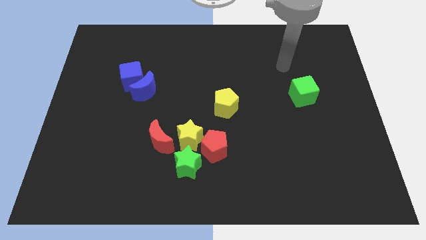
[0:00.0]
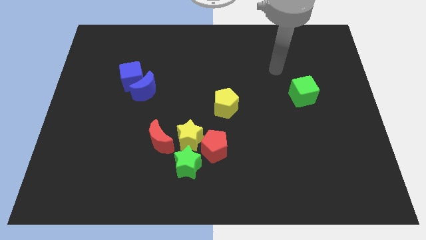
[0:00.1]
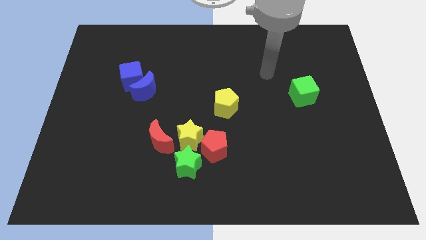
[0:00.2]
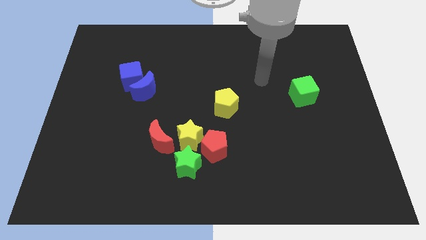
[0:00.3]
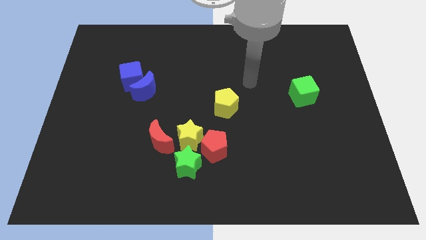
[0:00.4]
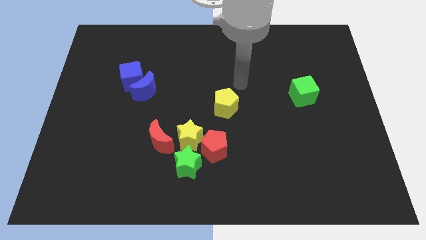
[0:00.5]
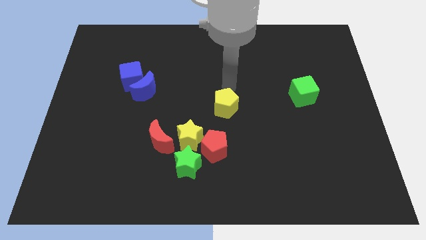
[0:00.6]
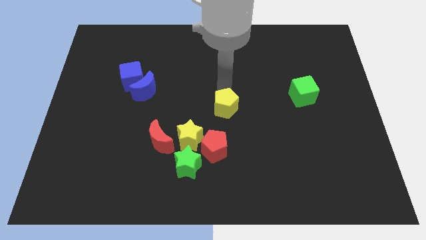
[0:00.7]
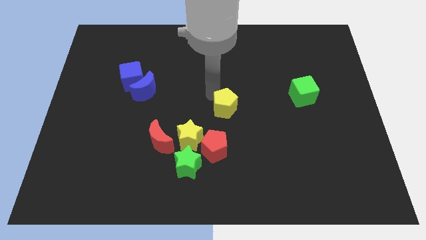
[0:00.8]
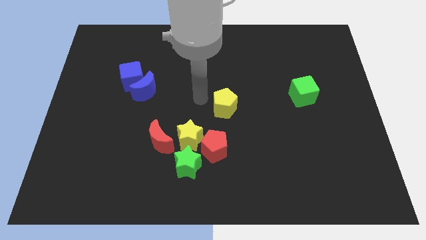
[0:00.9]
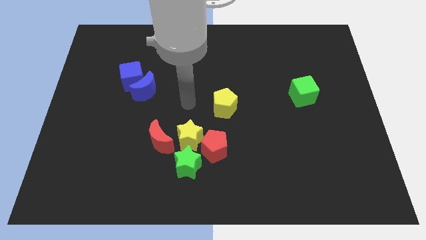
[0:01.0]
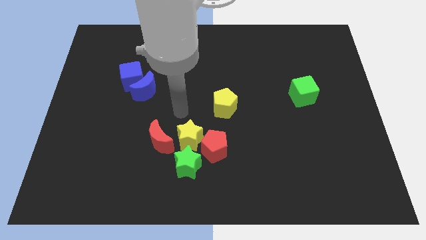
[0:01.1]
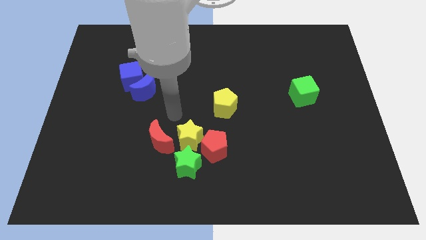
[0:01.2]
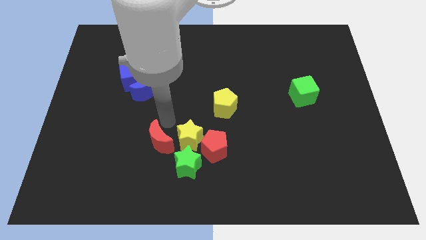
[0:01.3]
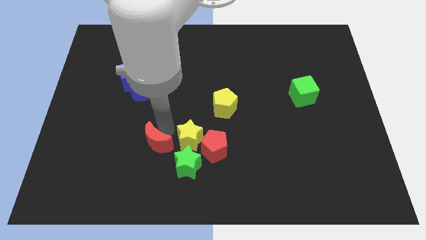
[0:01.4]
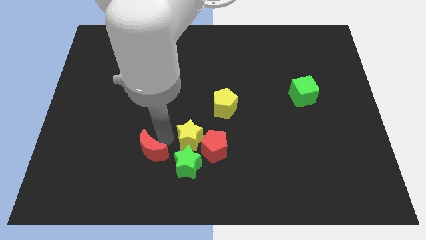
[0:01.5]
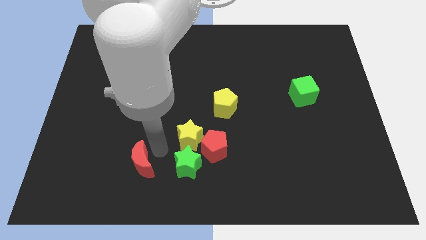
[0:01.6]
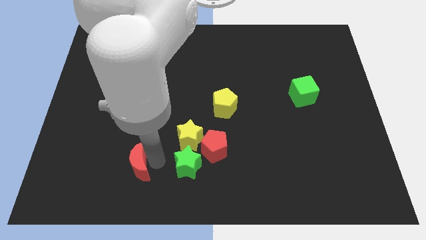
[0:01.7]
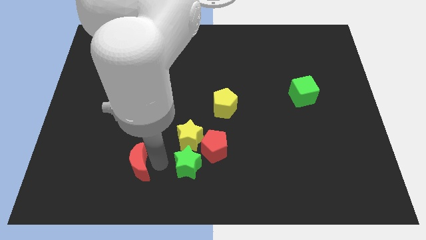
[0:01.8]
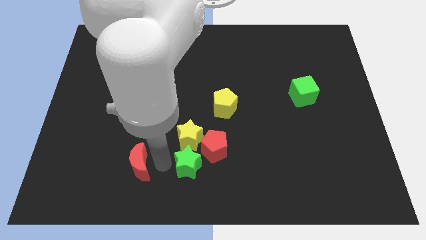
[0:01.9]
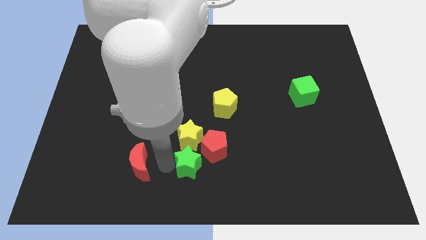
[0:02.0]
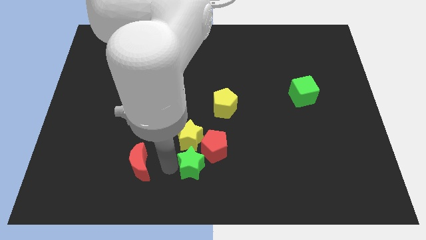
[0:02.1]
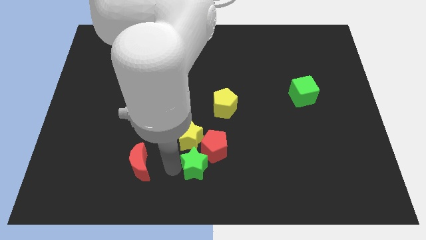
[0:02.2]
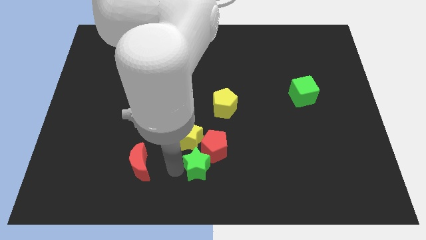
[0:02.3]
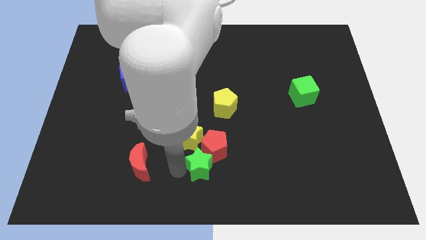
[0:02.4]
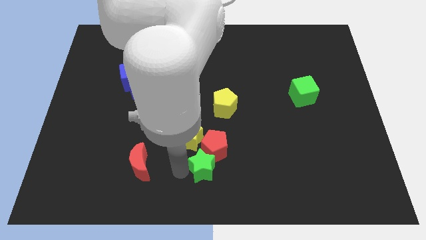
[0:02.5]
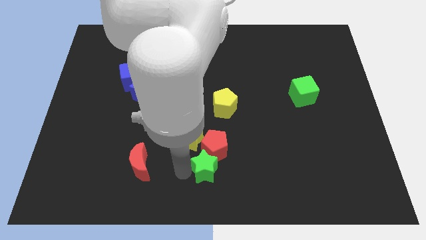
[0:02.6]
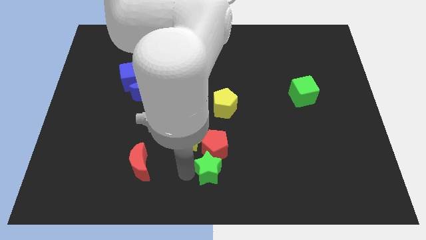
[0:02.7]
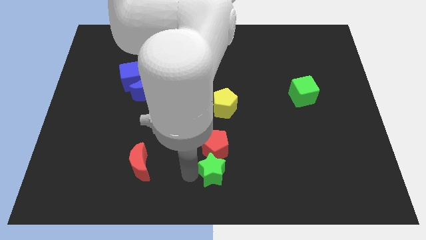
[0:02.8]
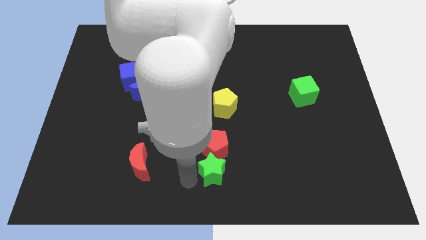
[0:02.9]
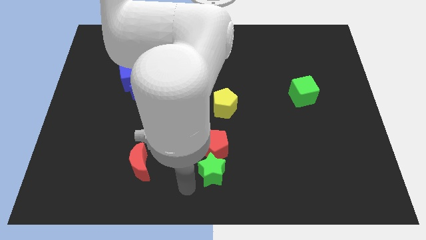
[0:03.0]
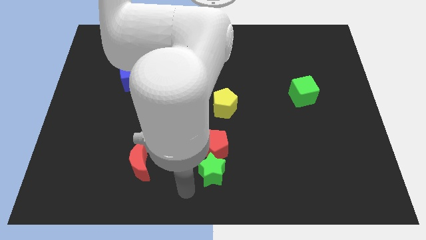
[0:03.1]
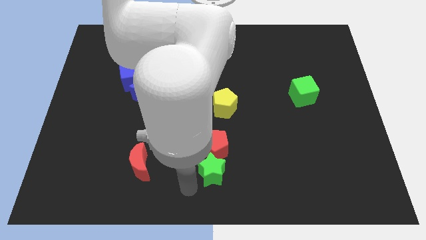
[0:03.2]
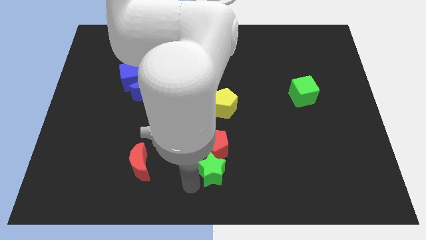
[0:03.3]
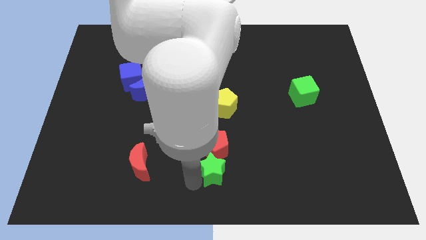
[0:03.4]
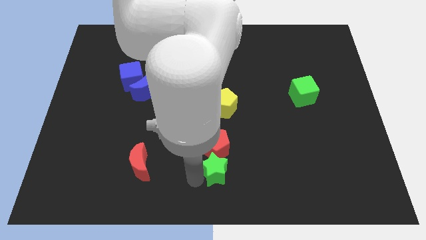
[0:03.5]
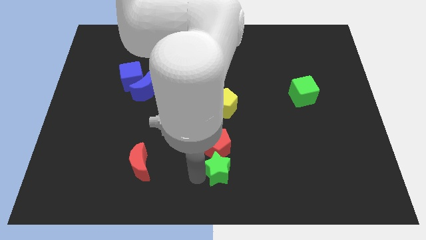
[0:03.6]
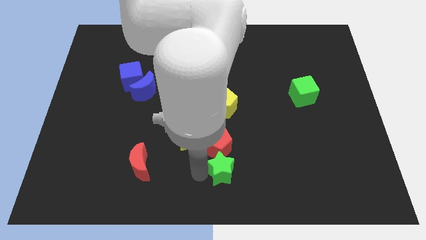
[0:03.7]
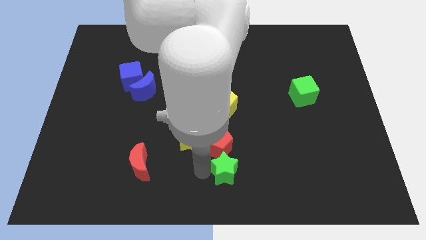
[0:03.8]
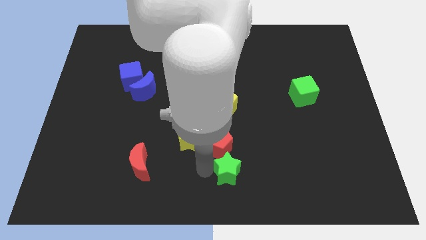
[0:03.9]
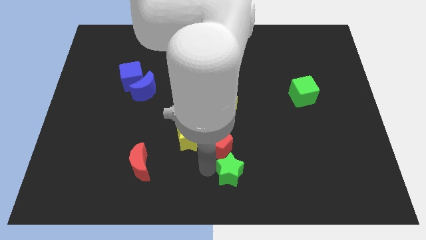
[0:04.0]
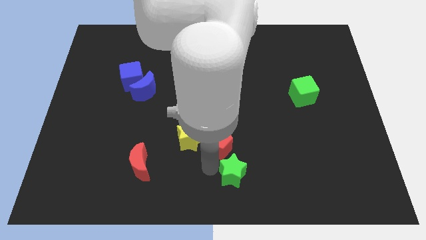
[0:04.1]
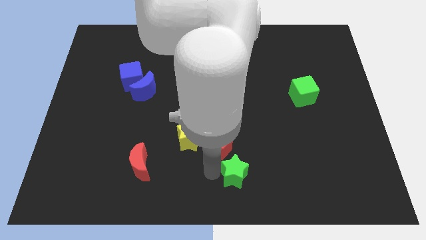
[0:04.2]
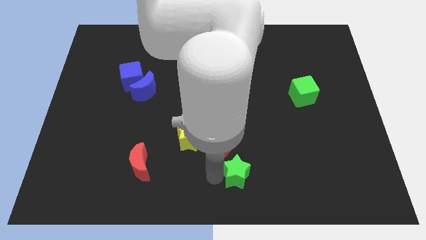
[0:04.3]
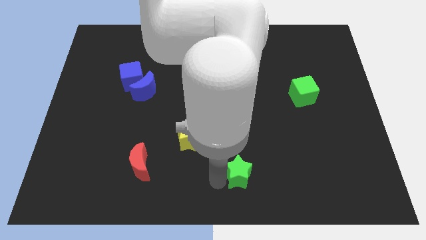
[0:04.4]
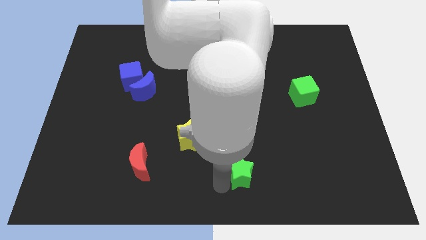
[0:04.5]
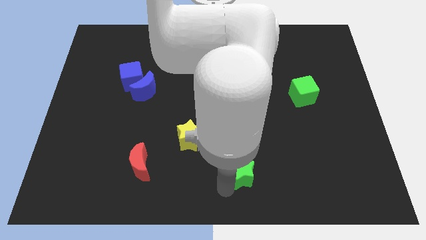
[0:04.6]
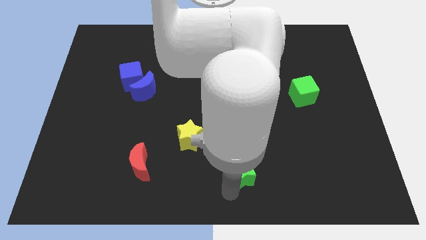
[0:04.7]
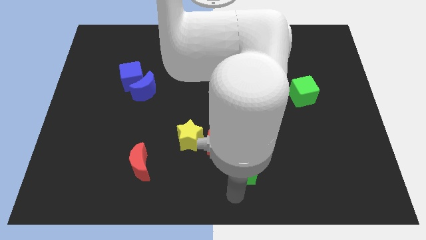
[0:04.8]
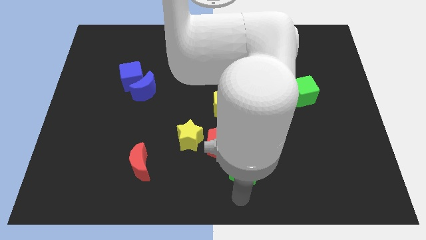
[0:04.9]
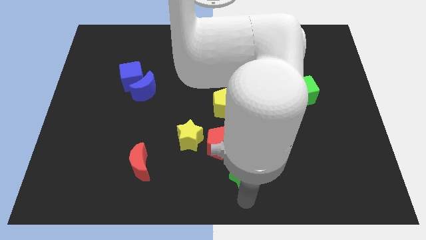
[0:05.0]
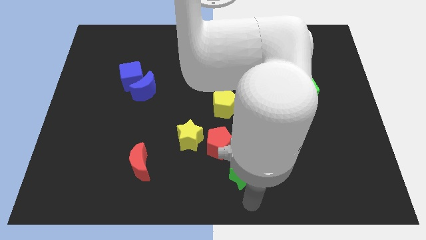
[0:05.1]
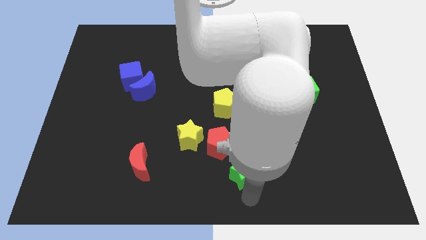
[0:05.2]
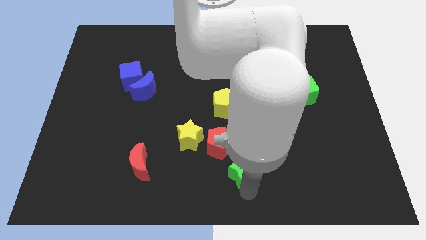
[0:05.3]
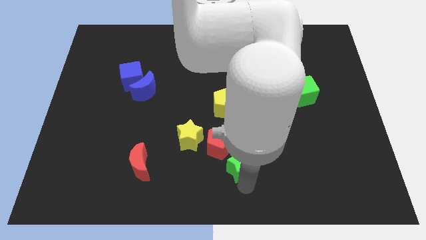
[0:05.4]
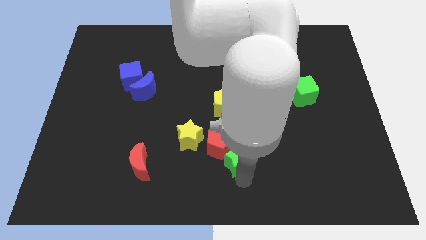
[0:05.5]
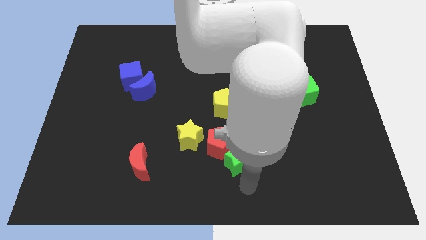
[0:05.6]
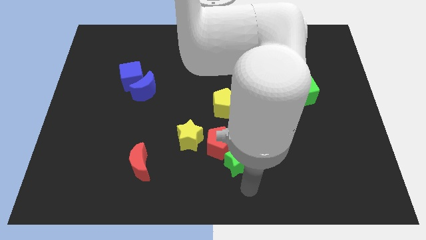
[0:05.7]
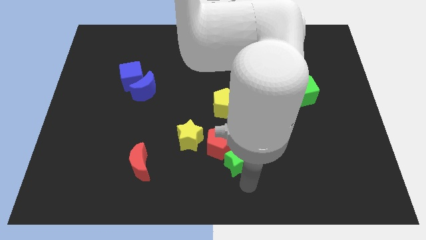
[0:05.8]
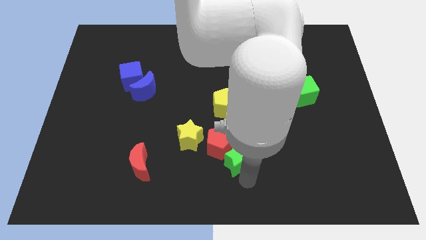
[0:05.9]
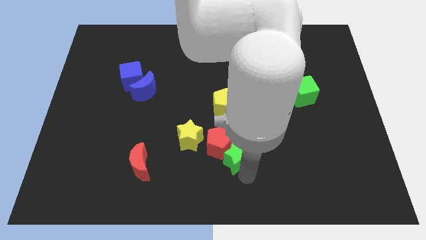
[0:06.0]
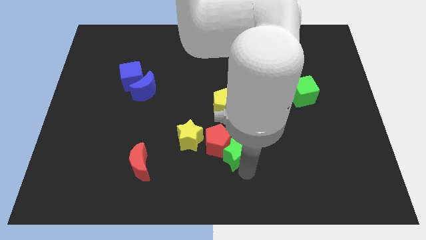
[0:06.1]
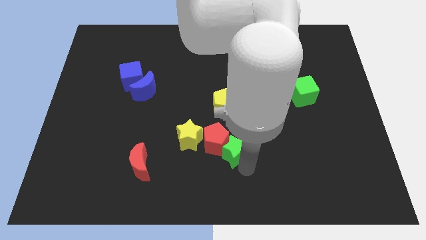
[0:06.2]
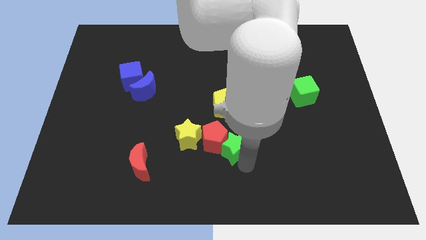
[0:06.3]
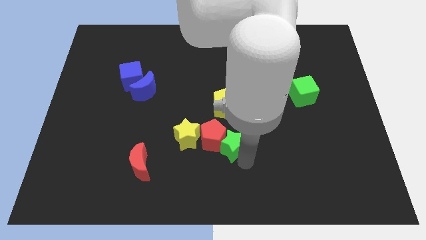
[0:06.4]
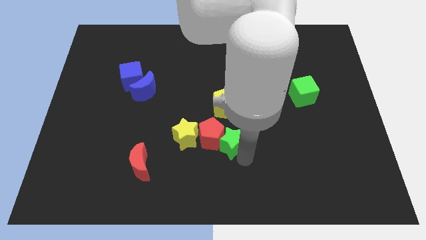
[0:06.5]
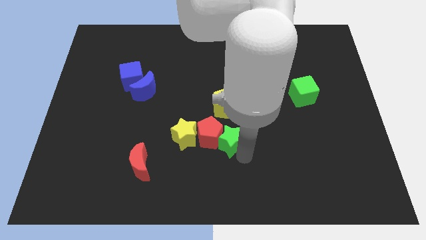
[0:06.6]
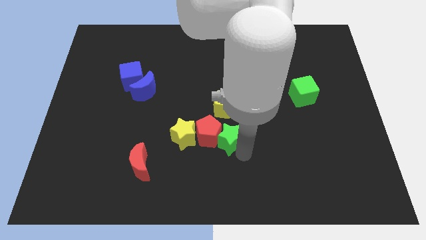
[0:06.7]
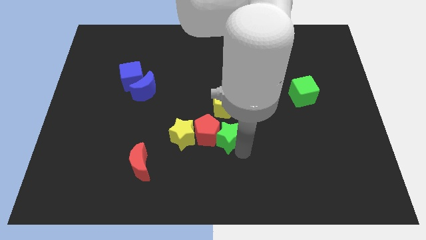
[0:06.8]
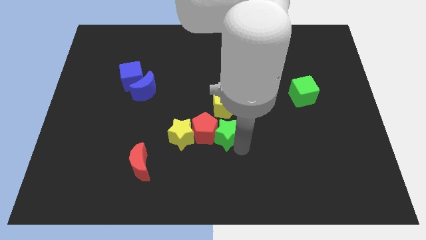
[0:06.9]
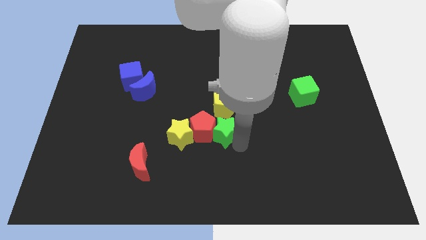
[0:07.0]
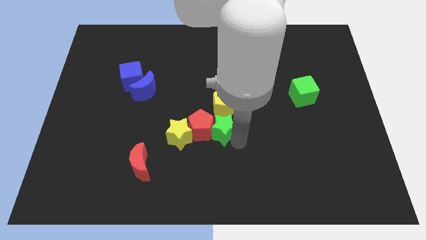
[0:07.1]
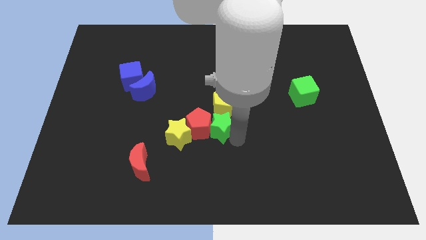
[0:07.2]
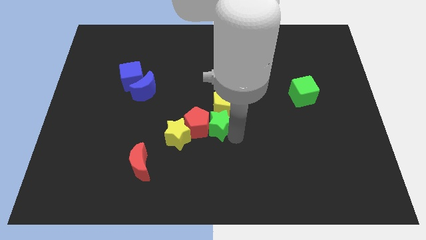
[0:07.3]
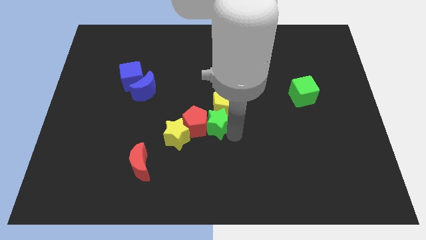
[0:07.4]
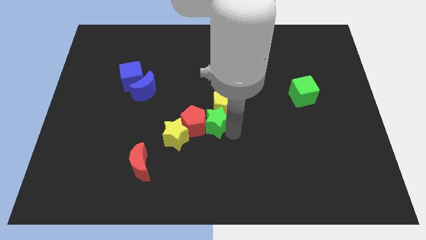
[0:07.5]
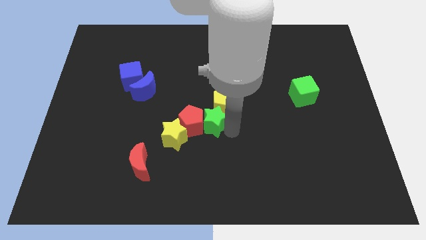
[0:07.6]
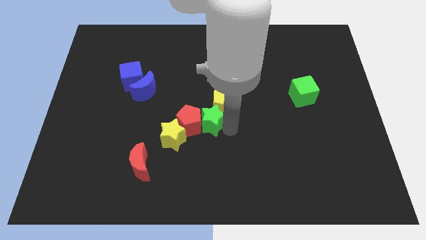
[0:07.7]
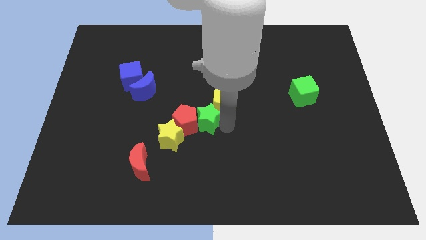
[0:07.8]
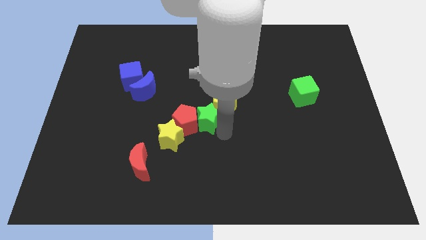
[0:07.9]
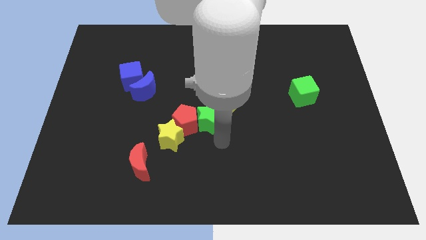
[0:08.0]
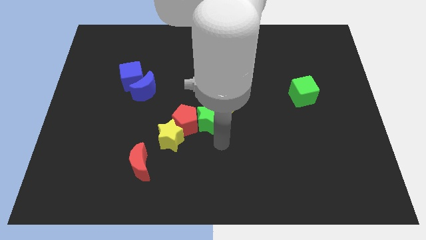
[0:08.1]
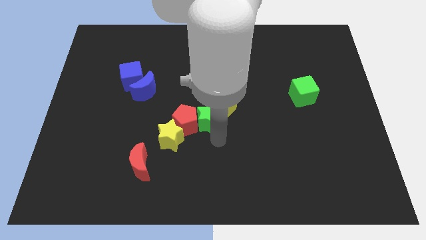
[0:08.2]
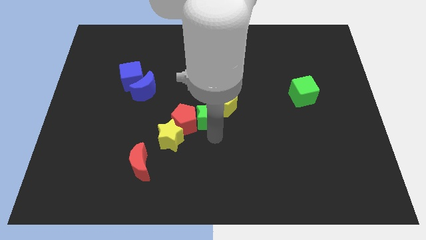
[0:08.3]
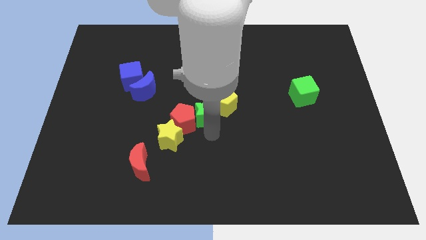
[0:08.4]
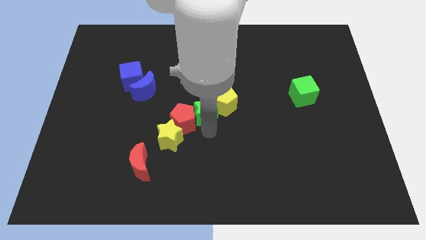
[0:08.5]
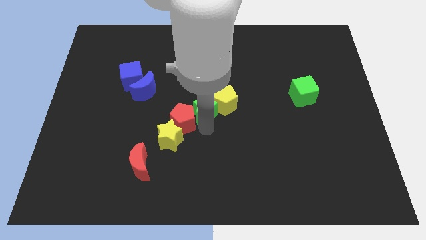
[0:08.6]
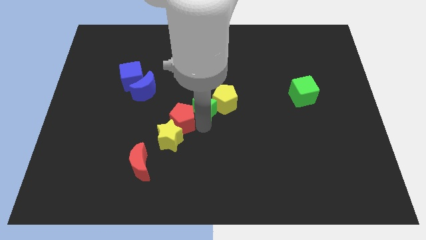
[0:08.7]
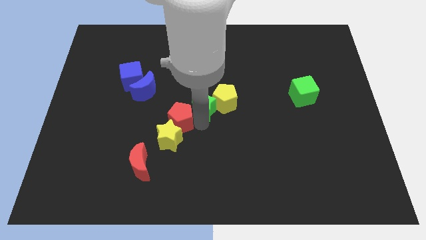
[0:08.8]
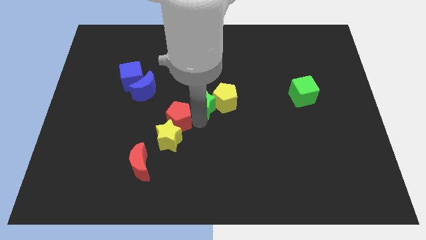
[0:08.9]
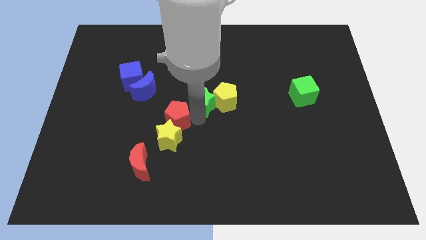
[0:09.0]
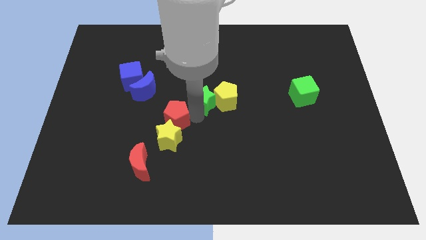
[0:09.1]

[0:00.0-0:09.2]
move the green star to the right of the blue moon
